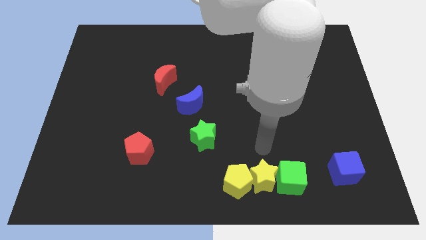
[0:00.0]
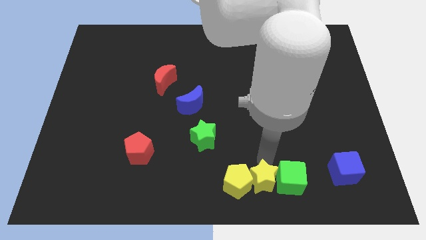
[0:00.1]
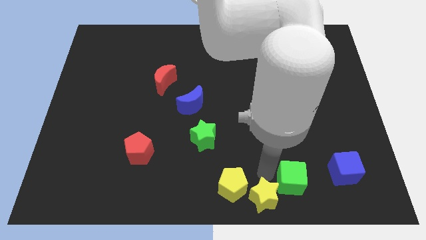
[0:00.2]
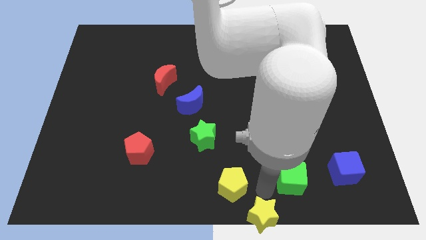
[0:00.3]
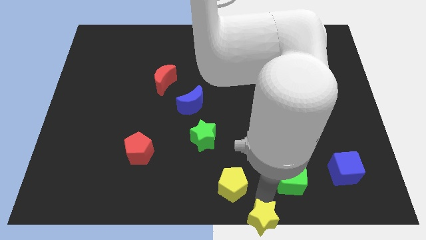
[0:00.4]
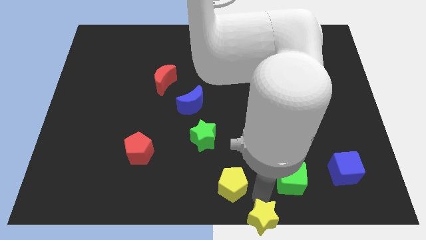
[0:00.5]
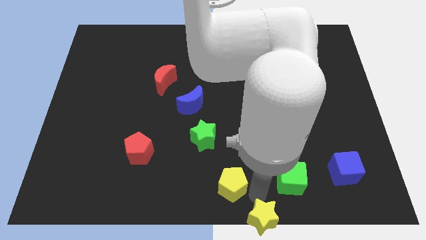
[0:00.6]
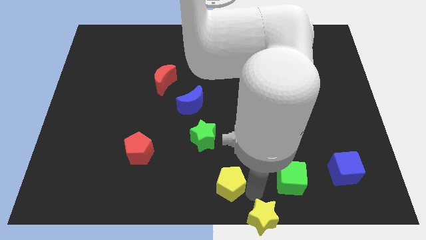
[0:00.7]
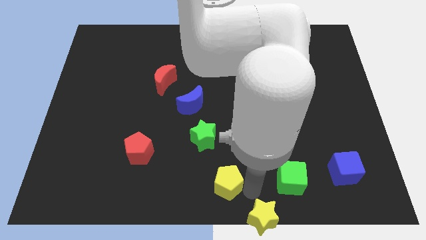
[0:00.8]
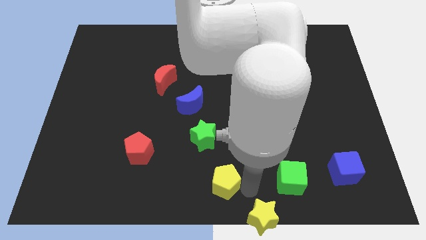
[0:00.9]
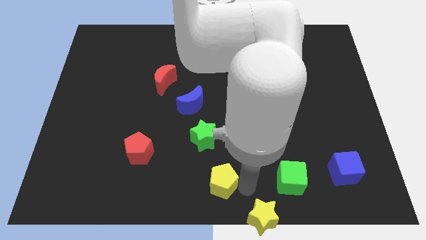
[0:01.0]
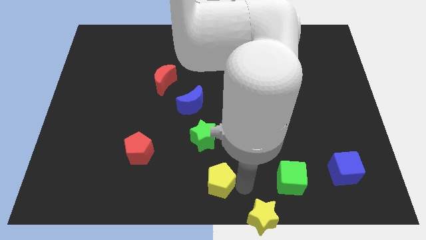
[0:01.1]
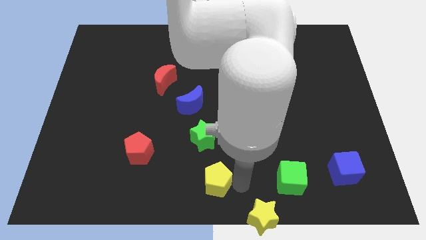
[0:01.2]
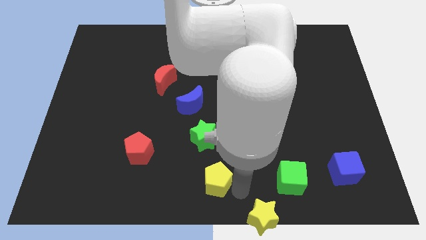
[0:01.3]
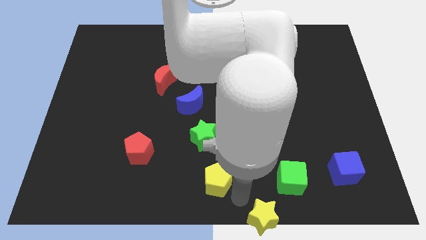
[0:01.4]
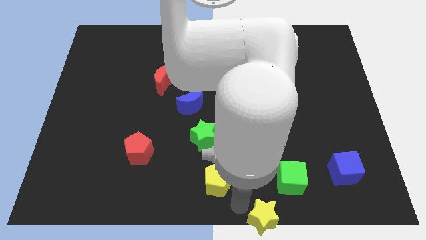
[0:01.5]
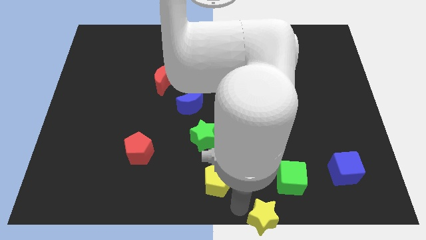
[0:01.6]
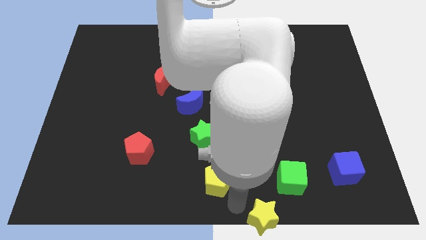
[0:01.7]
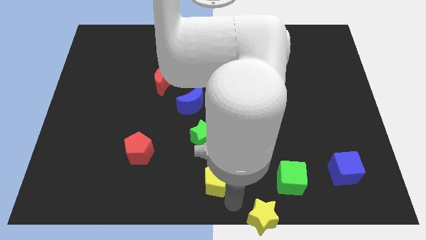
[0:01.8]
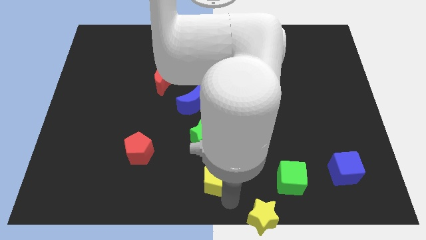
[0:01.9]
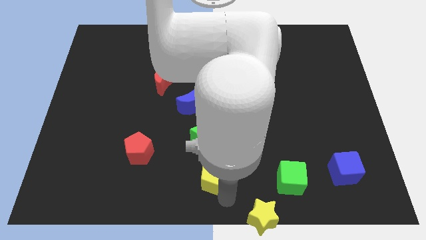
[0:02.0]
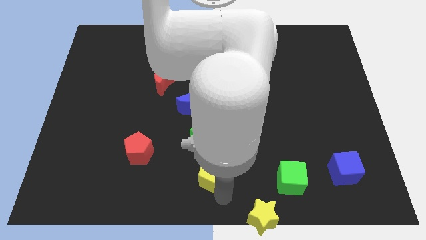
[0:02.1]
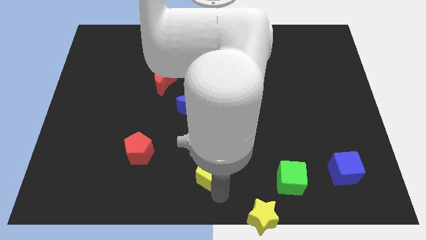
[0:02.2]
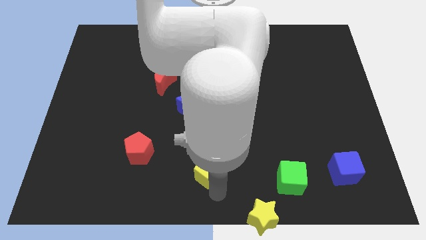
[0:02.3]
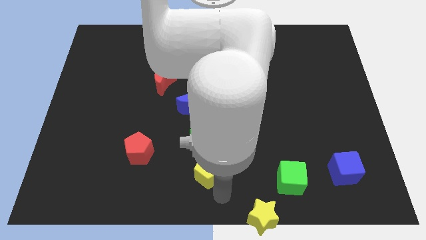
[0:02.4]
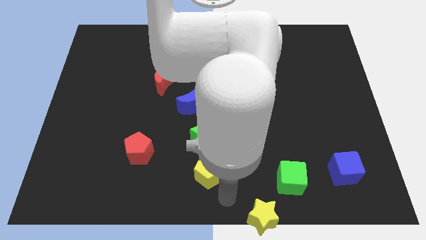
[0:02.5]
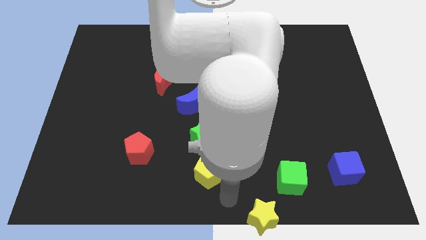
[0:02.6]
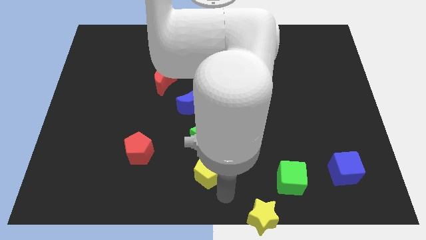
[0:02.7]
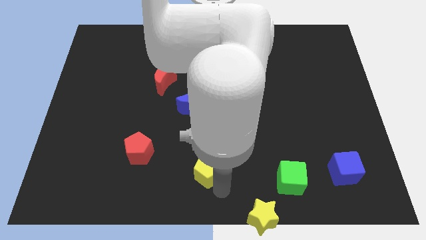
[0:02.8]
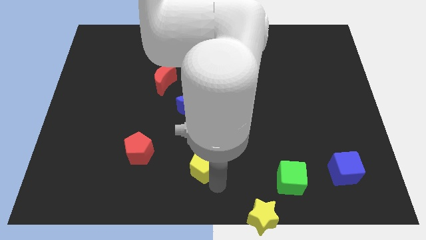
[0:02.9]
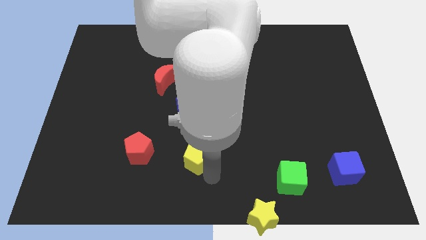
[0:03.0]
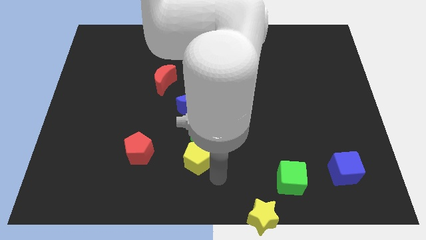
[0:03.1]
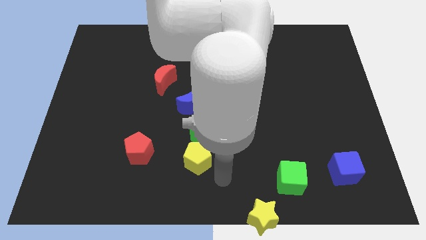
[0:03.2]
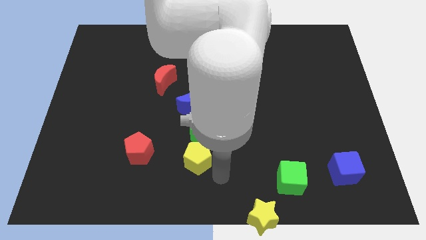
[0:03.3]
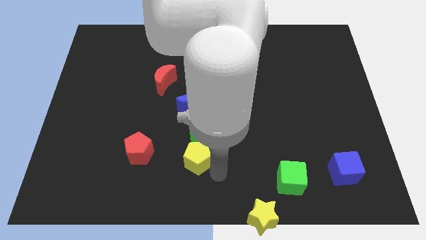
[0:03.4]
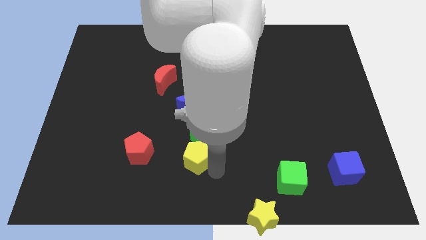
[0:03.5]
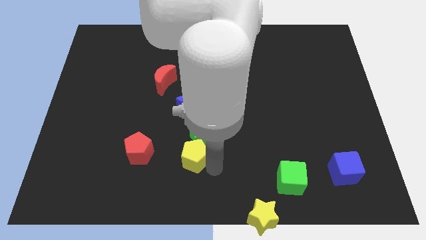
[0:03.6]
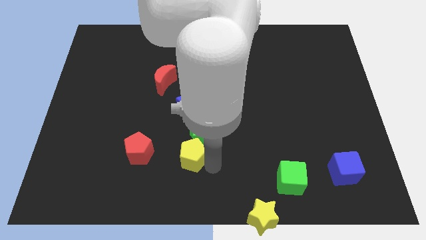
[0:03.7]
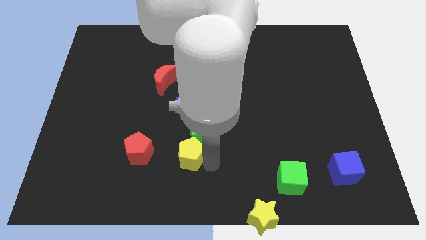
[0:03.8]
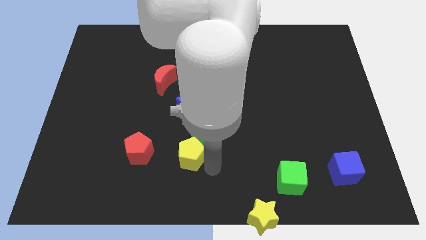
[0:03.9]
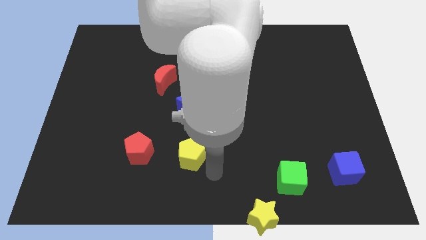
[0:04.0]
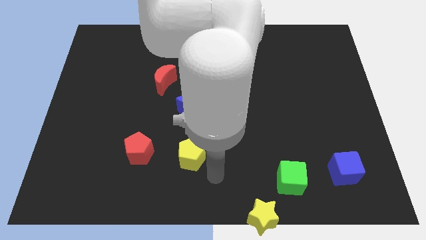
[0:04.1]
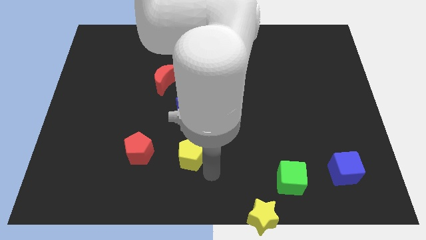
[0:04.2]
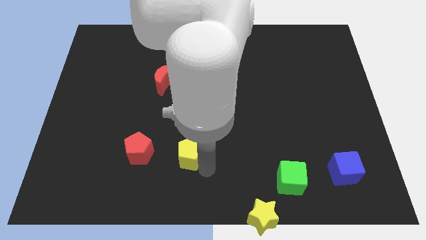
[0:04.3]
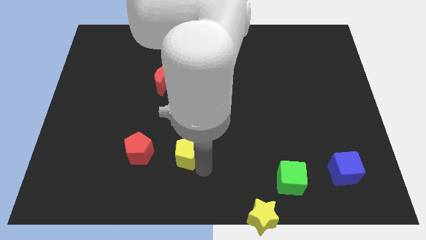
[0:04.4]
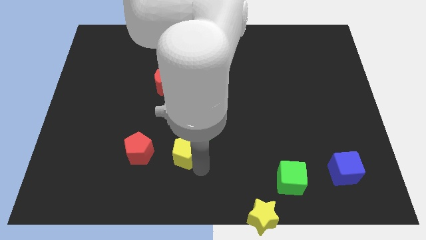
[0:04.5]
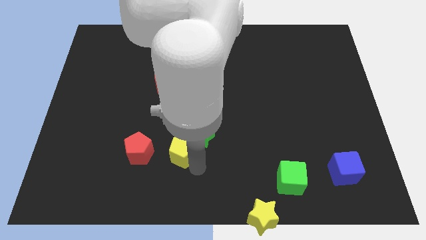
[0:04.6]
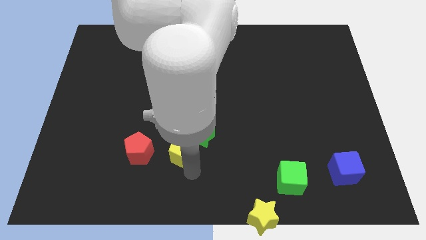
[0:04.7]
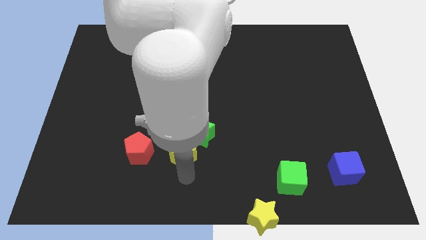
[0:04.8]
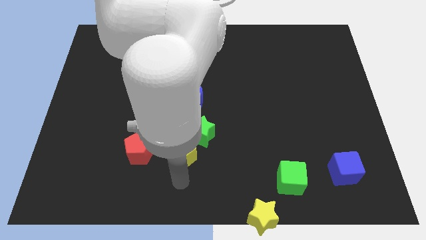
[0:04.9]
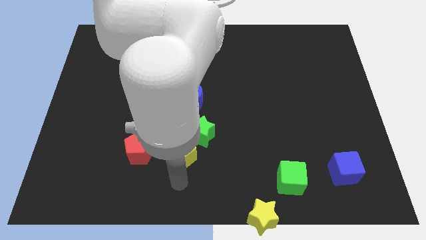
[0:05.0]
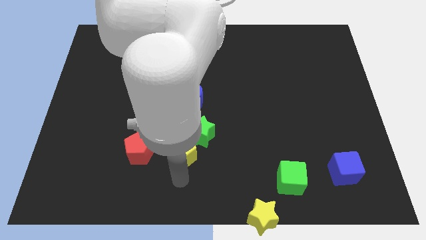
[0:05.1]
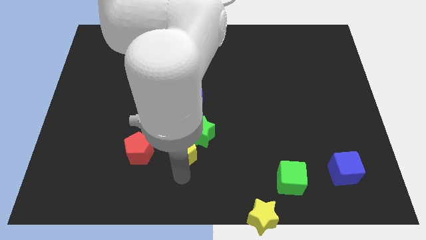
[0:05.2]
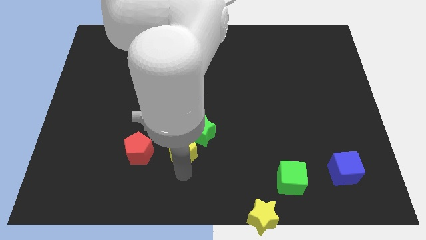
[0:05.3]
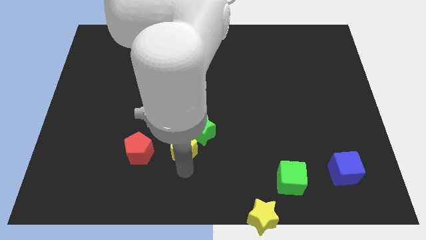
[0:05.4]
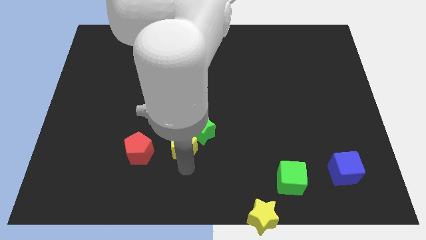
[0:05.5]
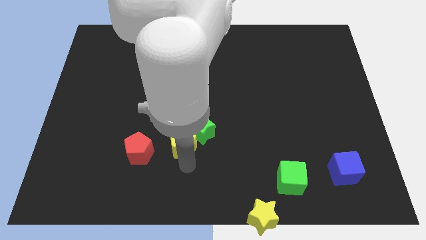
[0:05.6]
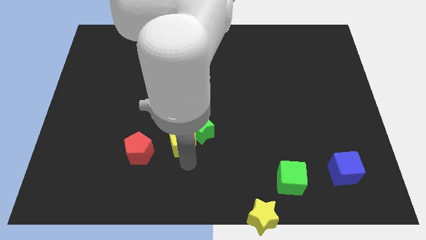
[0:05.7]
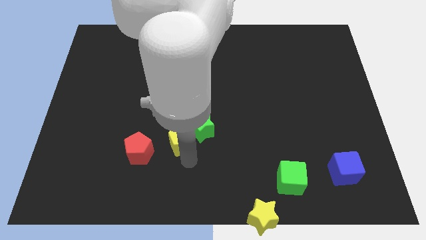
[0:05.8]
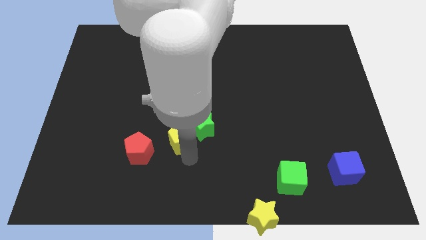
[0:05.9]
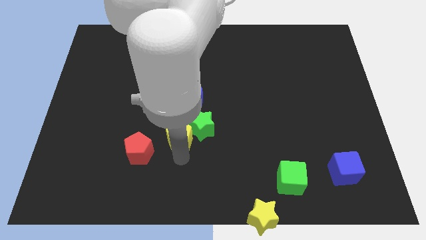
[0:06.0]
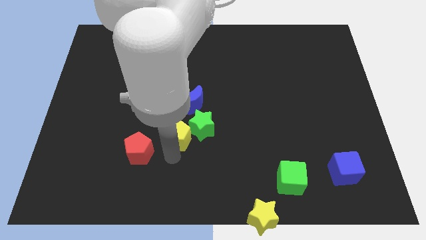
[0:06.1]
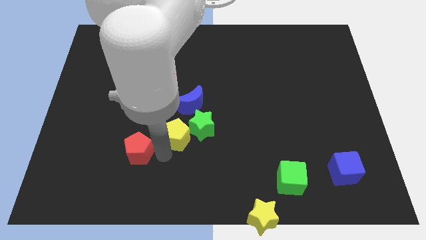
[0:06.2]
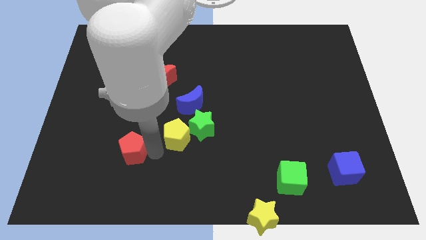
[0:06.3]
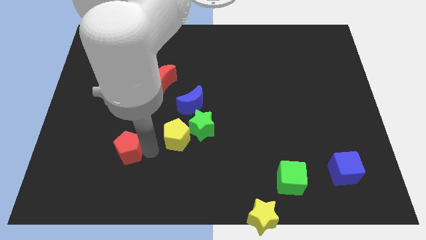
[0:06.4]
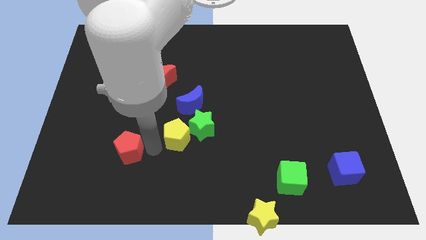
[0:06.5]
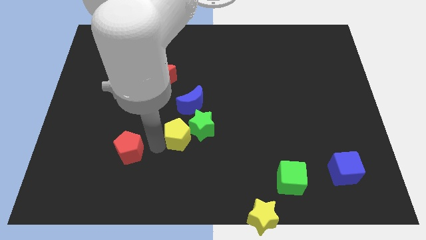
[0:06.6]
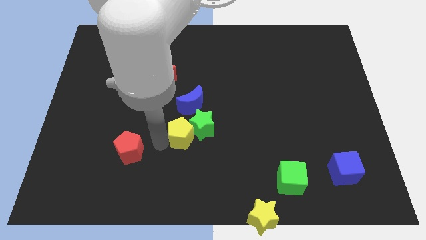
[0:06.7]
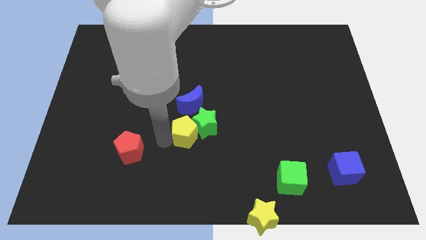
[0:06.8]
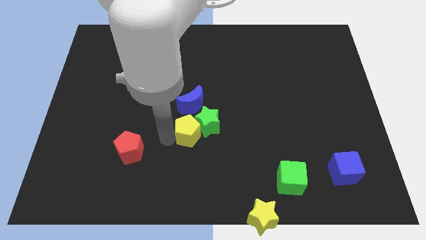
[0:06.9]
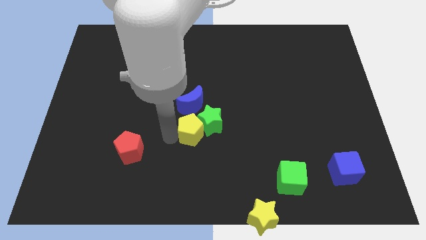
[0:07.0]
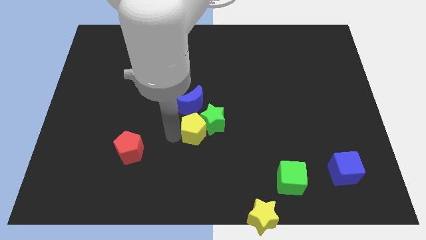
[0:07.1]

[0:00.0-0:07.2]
put the yellow pentagon diagonally down and to the right of the blue moon

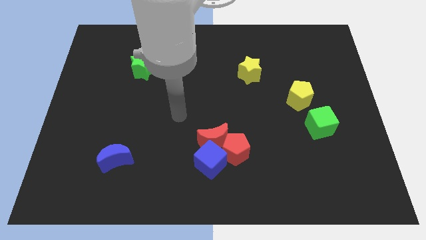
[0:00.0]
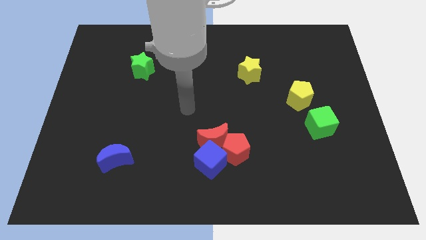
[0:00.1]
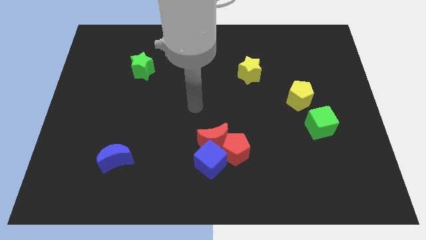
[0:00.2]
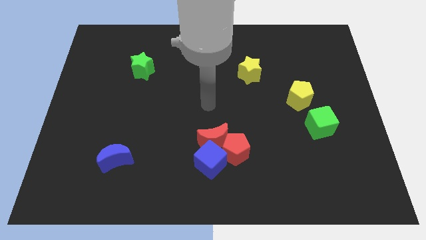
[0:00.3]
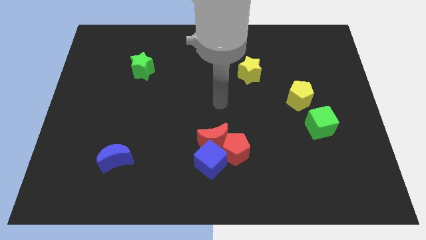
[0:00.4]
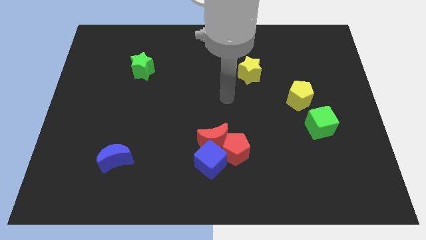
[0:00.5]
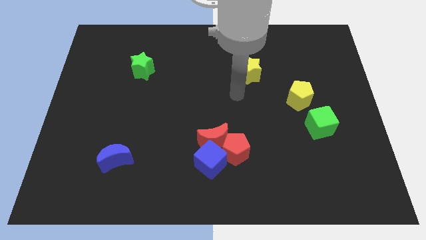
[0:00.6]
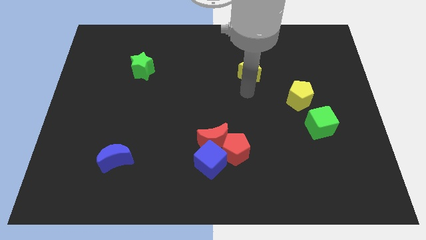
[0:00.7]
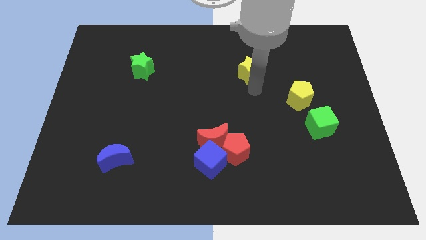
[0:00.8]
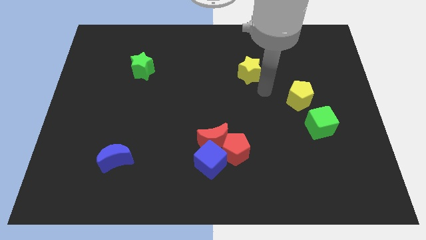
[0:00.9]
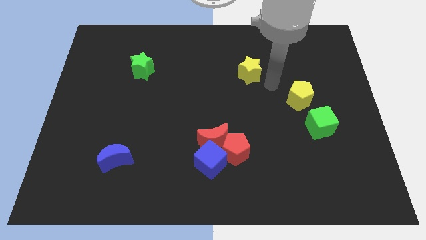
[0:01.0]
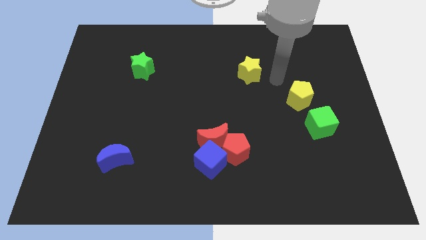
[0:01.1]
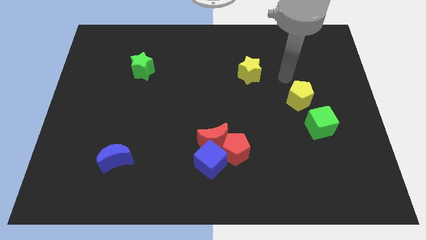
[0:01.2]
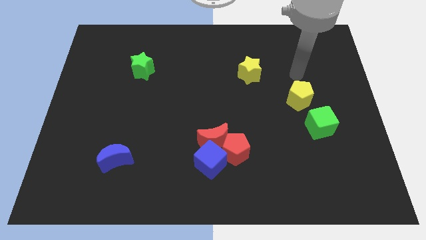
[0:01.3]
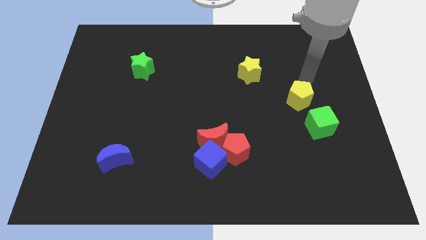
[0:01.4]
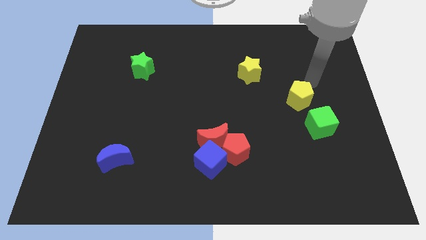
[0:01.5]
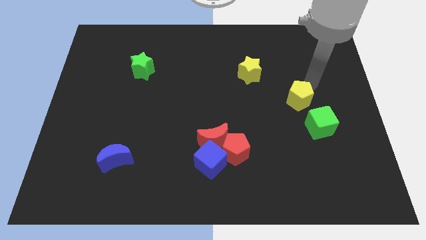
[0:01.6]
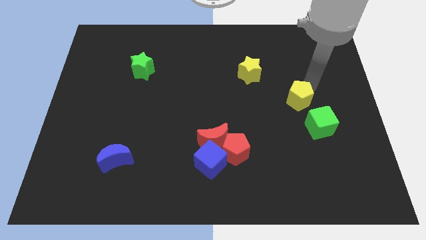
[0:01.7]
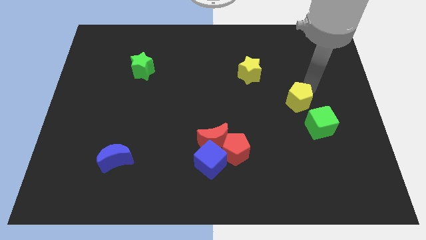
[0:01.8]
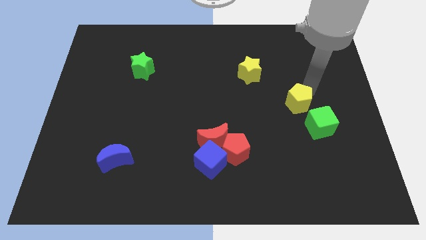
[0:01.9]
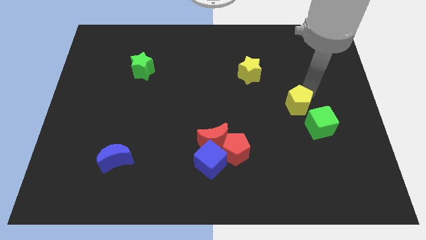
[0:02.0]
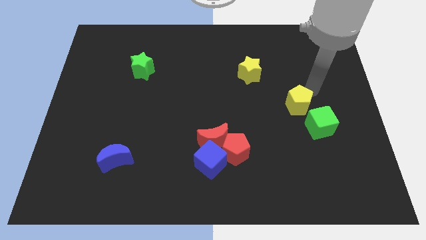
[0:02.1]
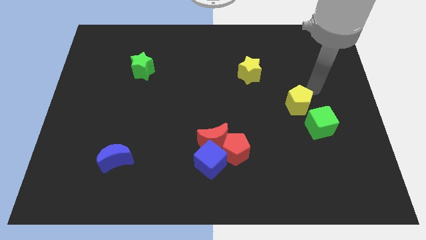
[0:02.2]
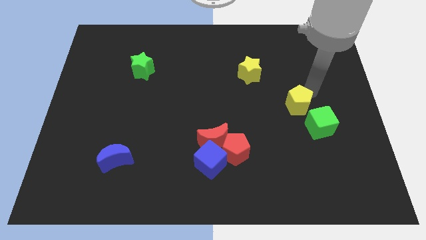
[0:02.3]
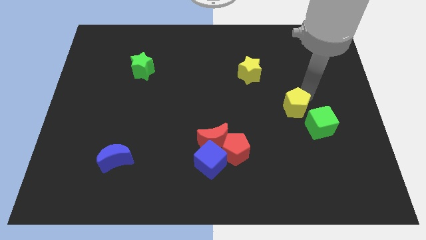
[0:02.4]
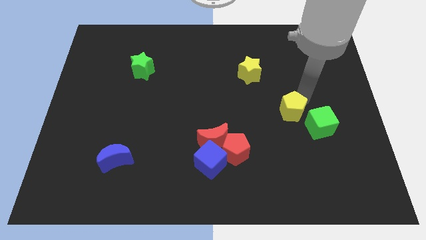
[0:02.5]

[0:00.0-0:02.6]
slide the yellow pentagon to the left side of the green cube
